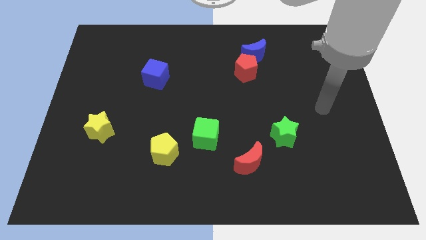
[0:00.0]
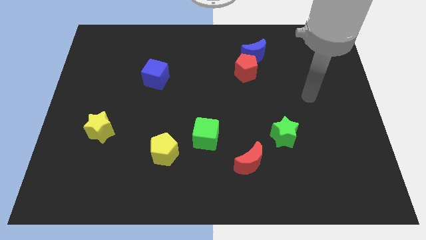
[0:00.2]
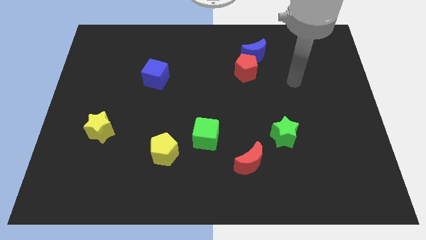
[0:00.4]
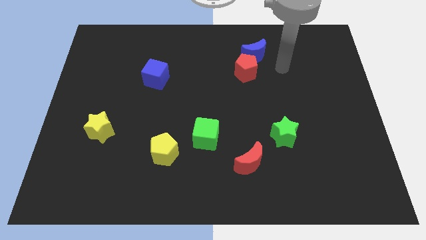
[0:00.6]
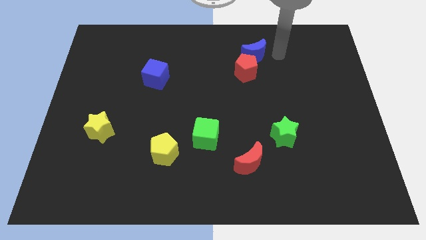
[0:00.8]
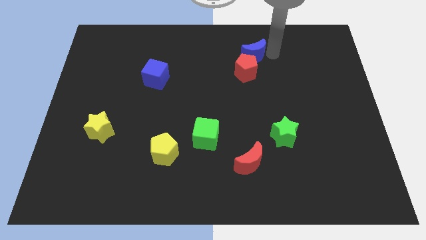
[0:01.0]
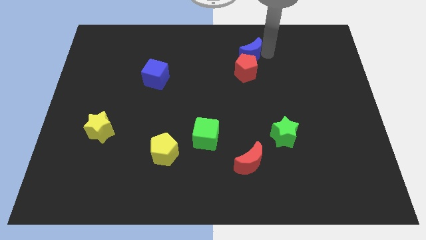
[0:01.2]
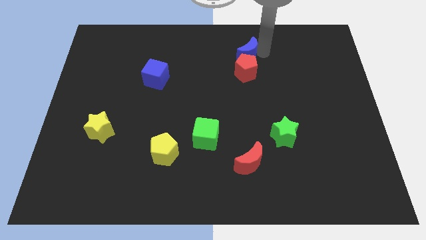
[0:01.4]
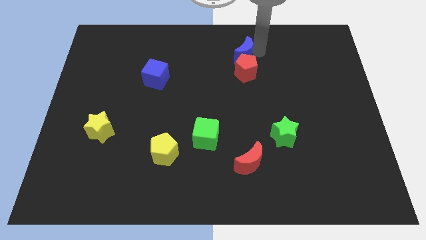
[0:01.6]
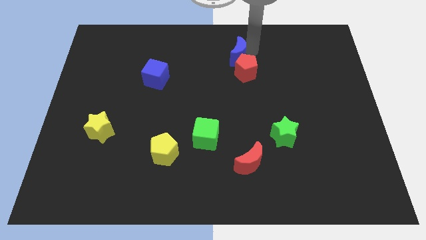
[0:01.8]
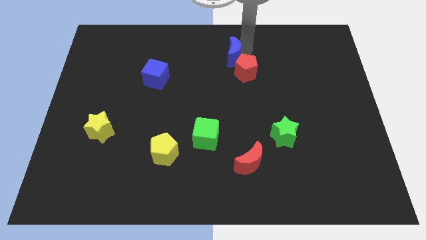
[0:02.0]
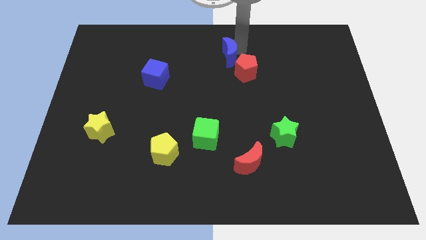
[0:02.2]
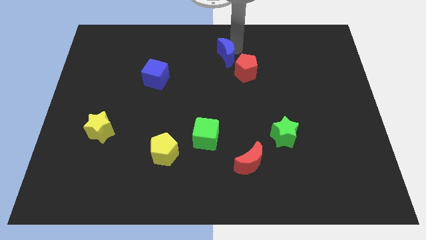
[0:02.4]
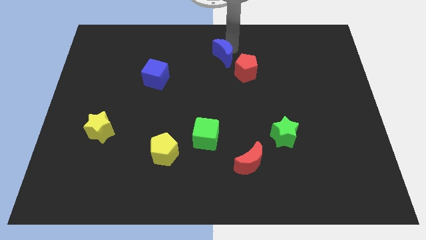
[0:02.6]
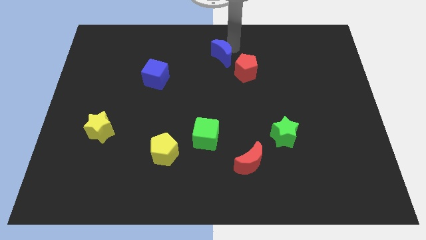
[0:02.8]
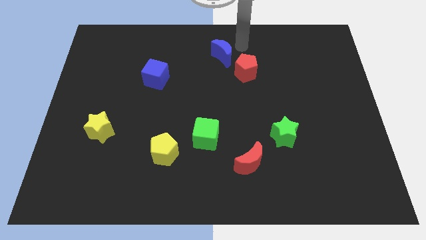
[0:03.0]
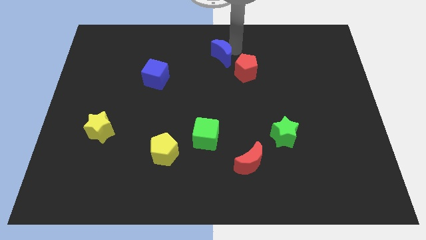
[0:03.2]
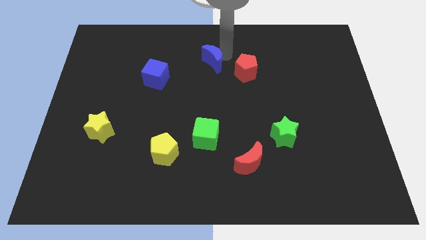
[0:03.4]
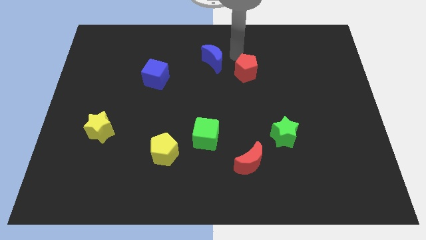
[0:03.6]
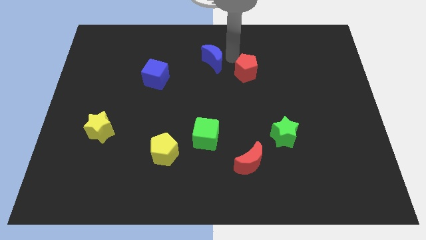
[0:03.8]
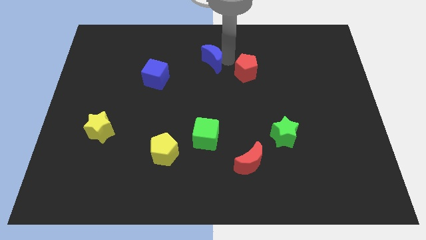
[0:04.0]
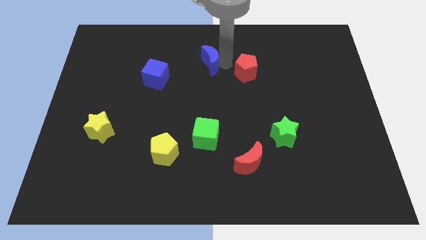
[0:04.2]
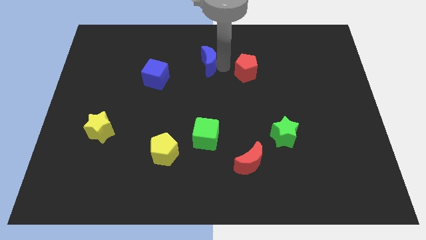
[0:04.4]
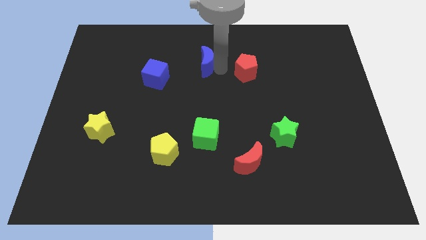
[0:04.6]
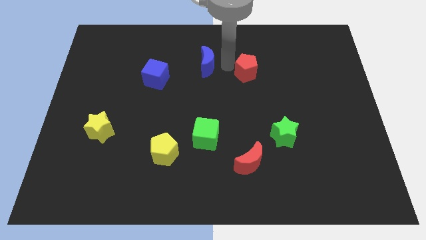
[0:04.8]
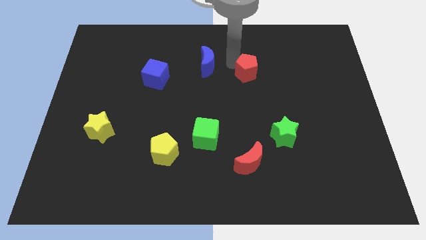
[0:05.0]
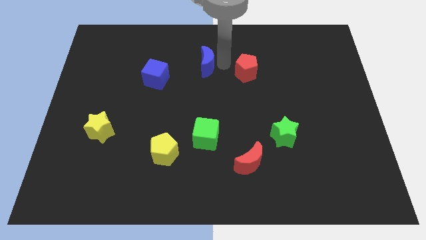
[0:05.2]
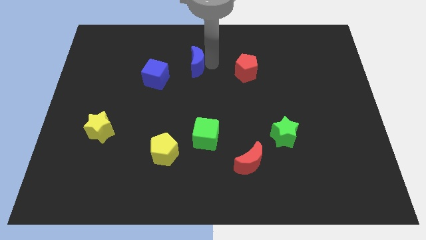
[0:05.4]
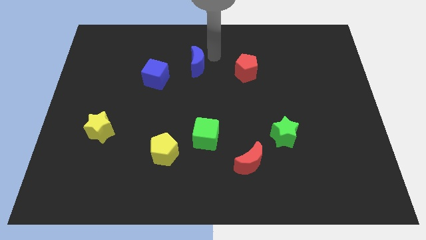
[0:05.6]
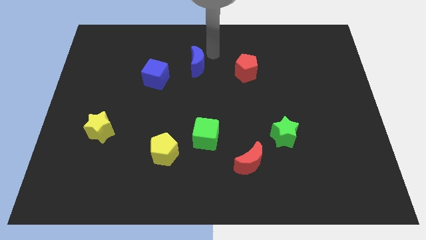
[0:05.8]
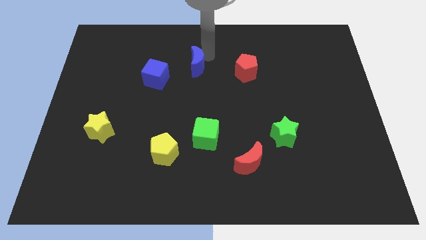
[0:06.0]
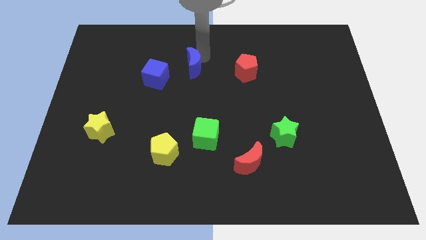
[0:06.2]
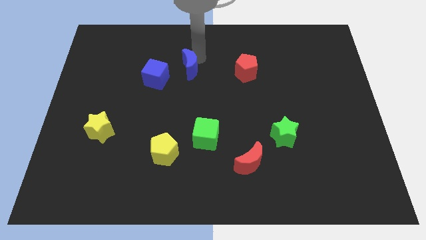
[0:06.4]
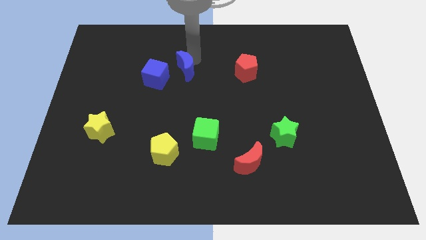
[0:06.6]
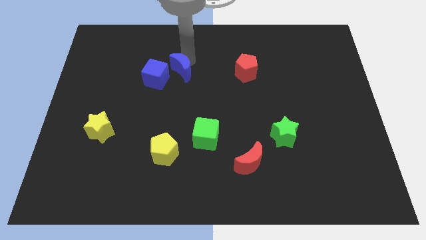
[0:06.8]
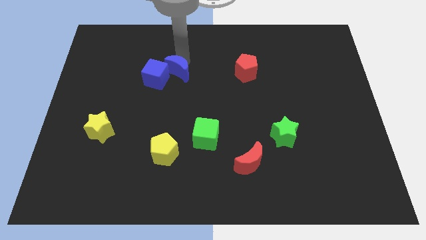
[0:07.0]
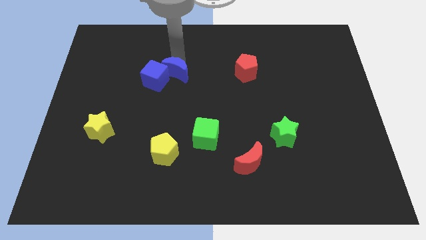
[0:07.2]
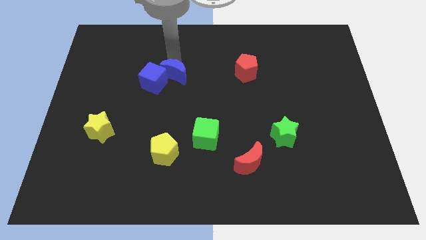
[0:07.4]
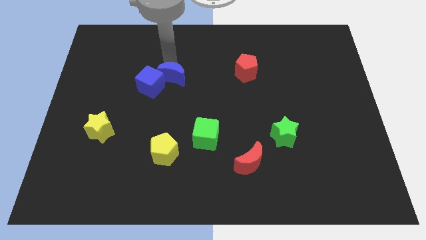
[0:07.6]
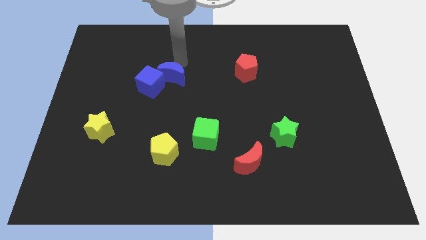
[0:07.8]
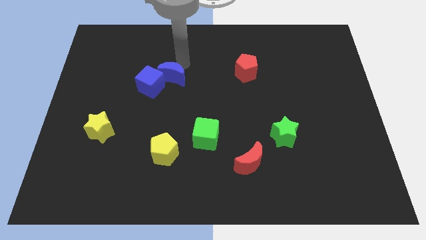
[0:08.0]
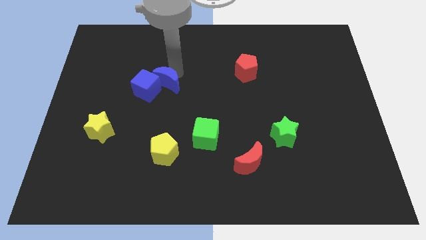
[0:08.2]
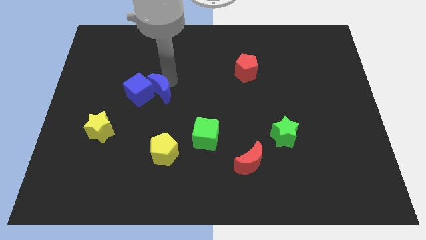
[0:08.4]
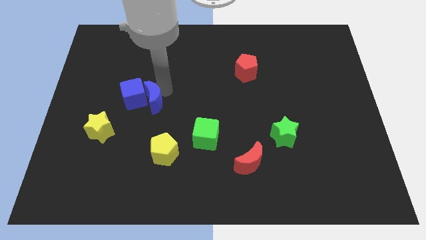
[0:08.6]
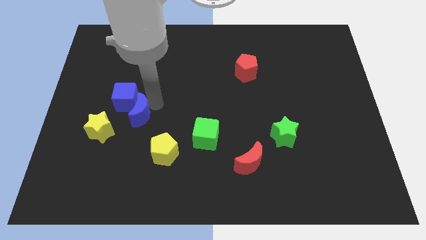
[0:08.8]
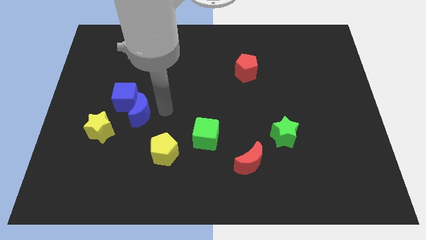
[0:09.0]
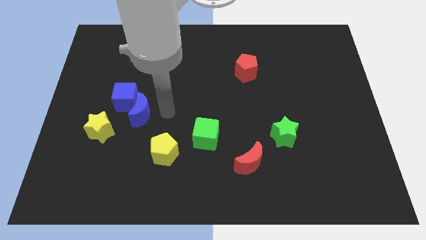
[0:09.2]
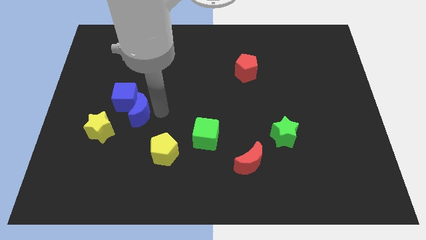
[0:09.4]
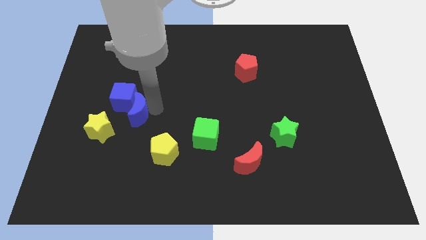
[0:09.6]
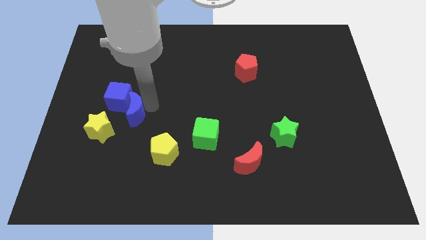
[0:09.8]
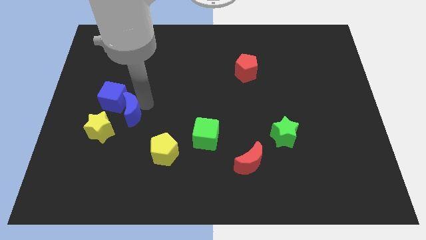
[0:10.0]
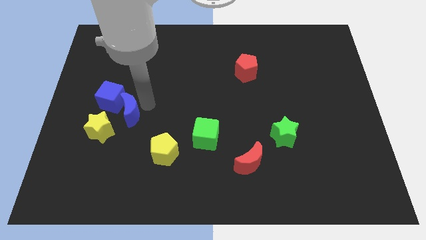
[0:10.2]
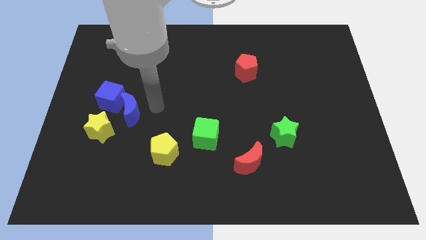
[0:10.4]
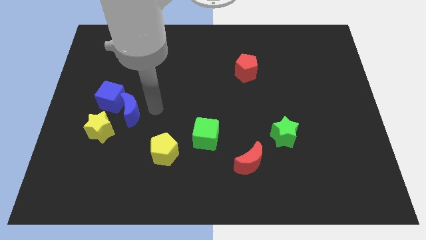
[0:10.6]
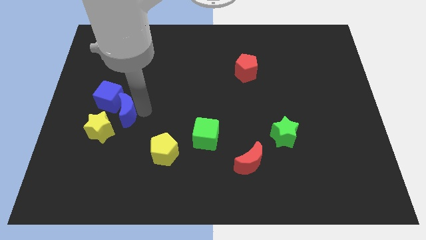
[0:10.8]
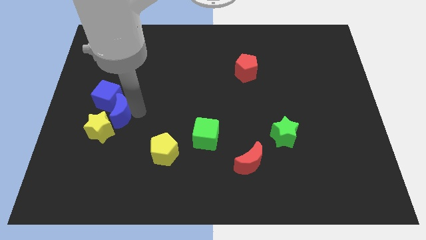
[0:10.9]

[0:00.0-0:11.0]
push the blue moon towards the yellow star

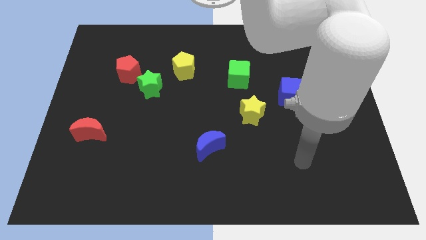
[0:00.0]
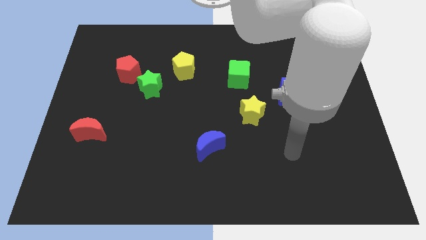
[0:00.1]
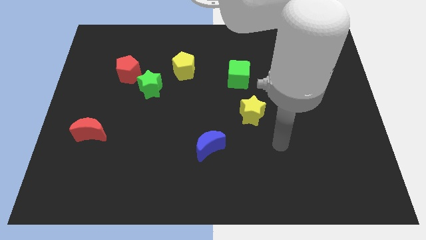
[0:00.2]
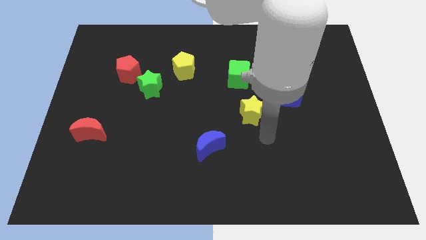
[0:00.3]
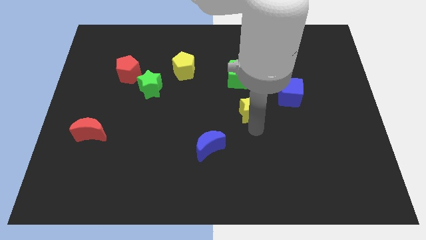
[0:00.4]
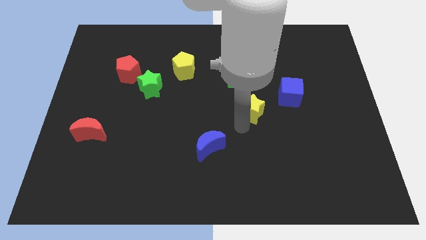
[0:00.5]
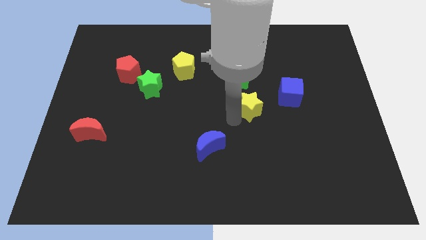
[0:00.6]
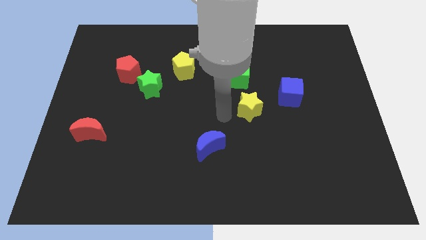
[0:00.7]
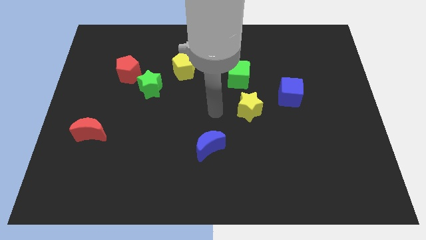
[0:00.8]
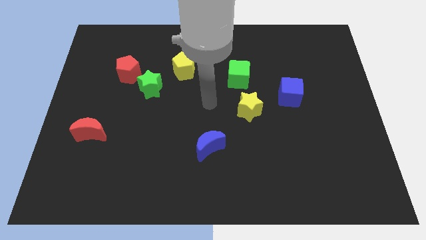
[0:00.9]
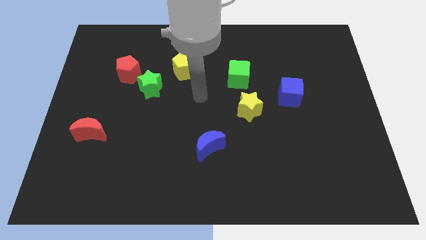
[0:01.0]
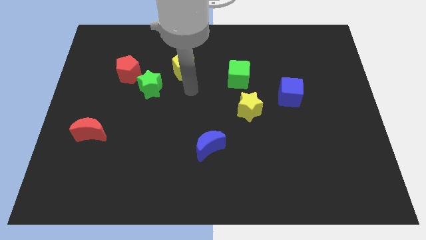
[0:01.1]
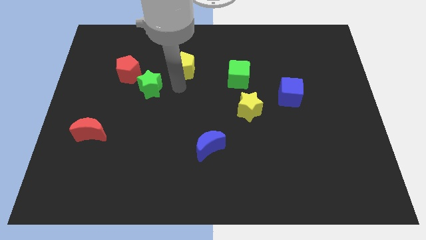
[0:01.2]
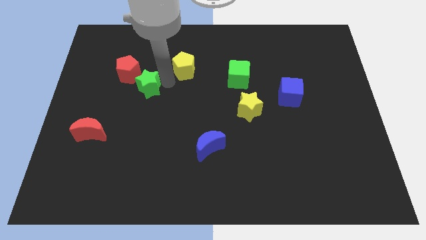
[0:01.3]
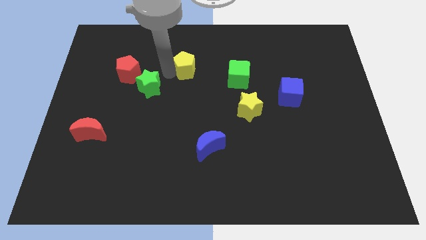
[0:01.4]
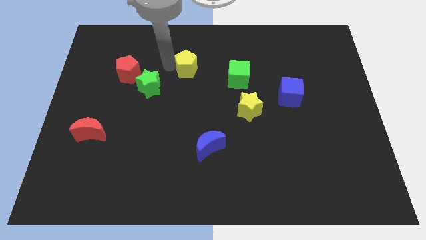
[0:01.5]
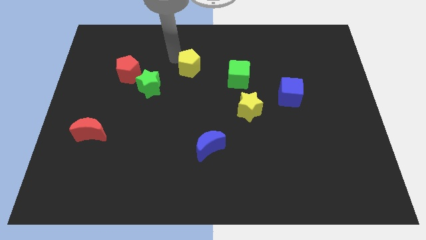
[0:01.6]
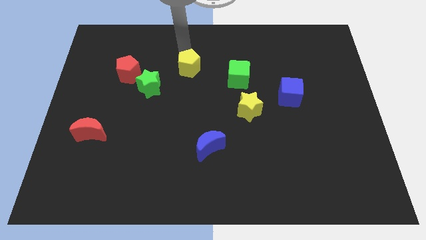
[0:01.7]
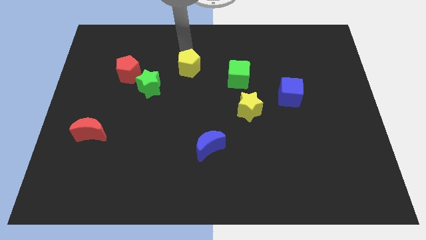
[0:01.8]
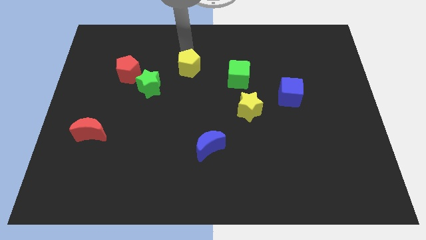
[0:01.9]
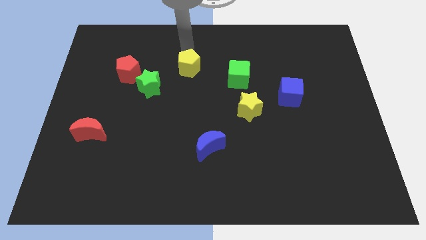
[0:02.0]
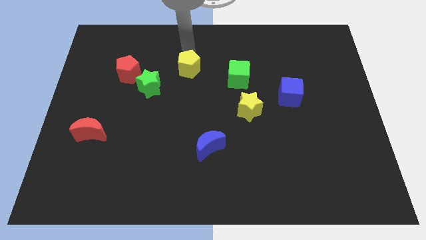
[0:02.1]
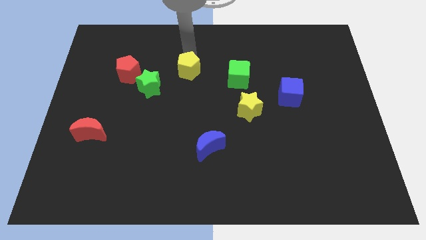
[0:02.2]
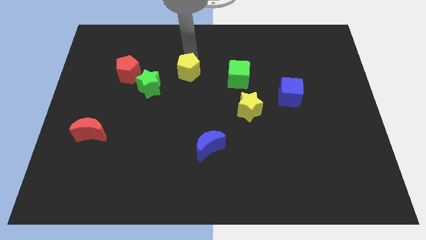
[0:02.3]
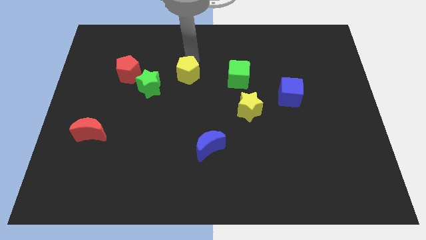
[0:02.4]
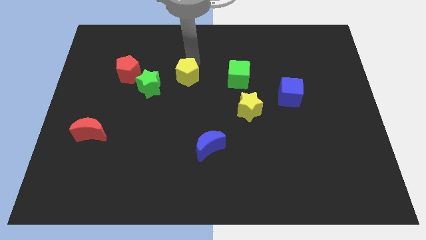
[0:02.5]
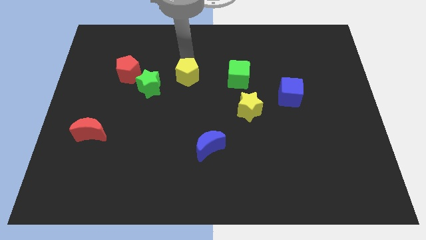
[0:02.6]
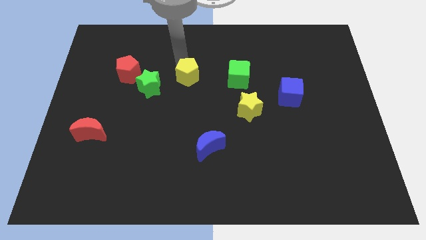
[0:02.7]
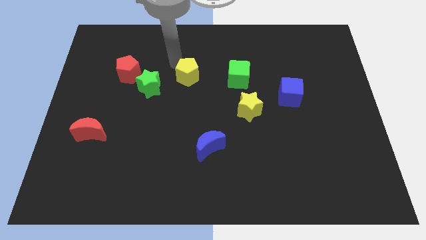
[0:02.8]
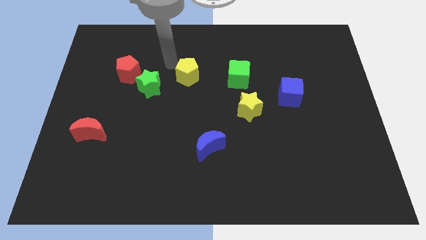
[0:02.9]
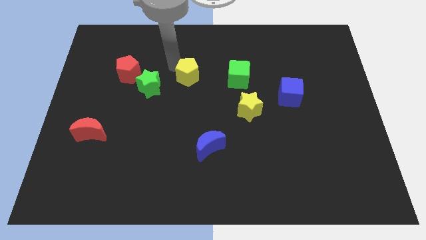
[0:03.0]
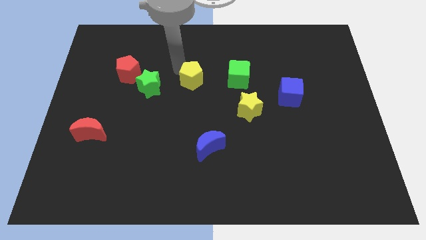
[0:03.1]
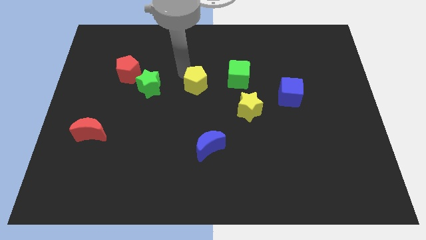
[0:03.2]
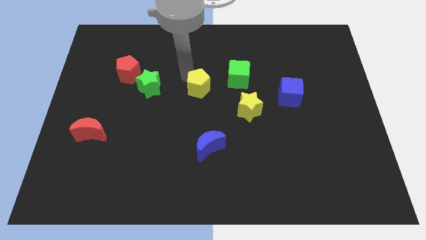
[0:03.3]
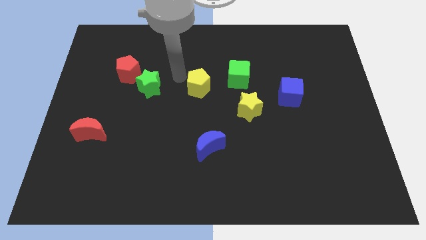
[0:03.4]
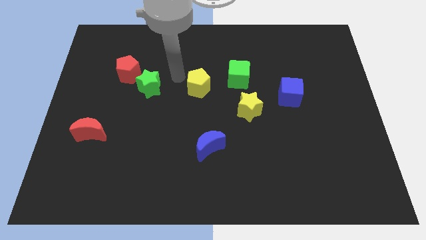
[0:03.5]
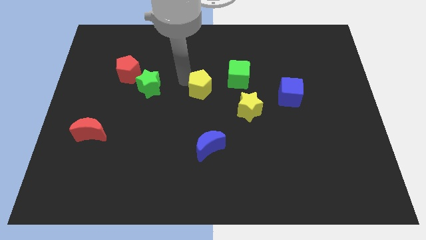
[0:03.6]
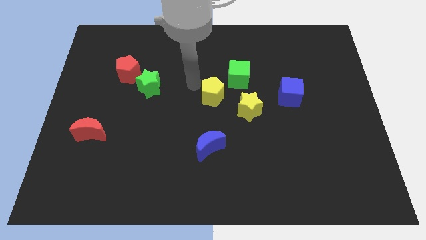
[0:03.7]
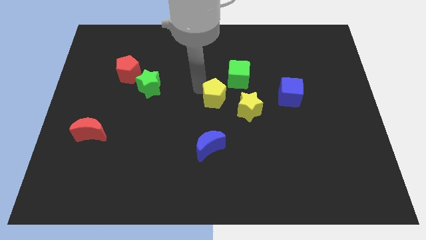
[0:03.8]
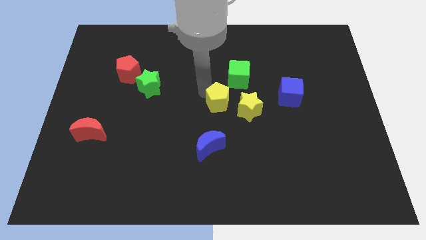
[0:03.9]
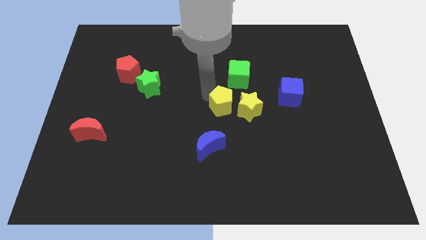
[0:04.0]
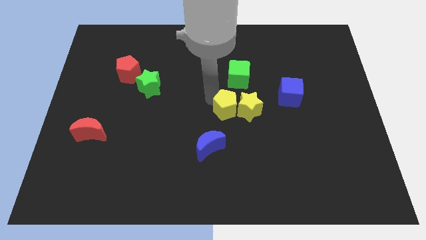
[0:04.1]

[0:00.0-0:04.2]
push the yellow pentagon close to the yellow star
